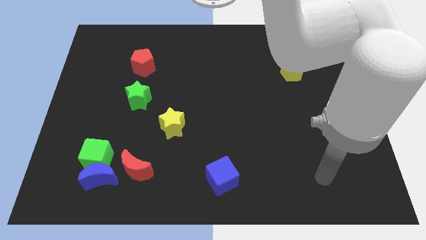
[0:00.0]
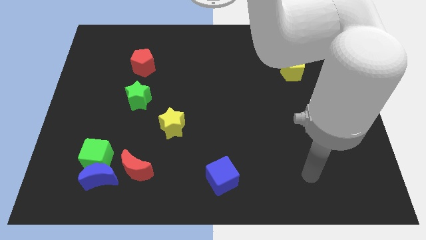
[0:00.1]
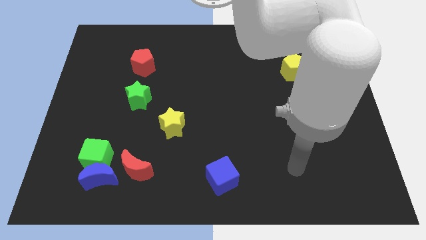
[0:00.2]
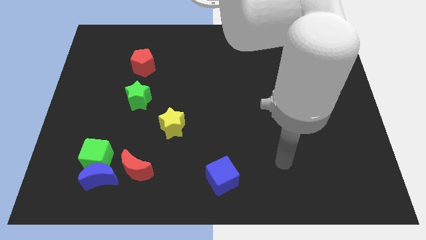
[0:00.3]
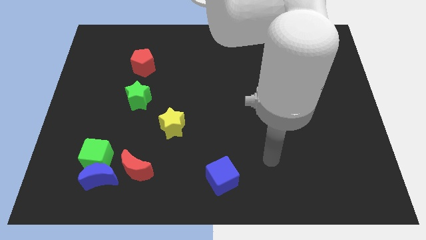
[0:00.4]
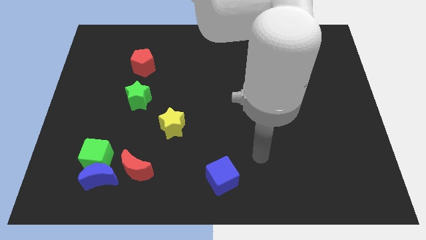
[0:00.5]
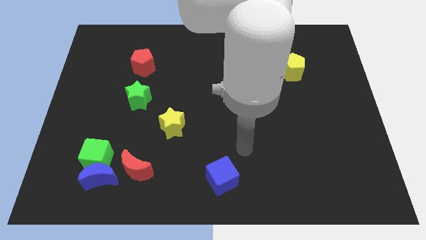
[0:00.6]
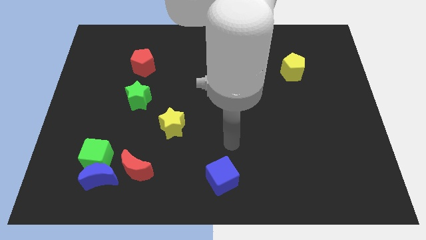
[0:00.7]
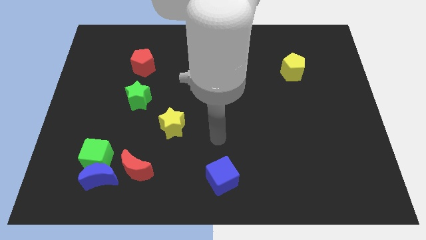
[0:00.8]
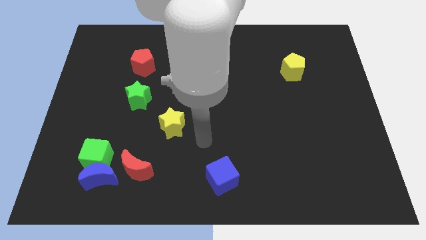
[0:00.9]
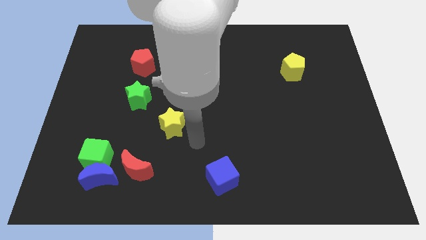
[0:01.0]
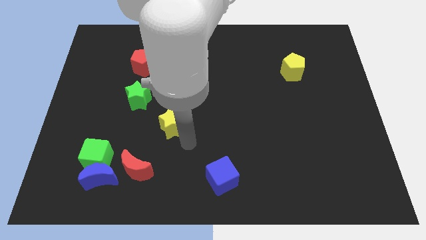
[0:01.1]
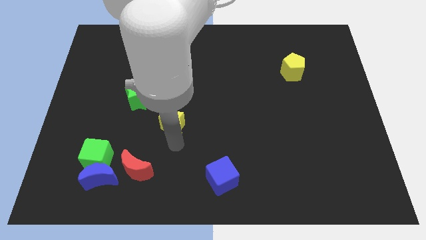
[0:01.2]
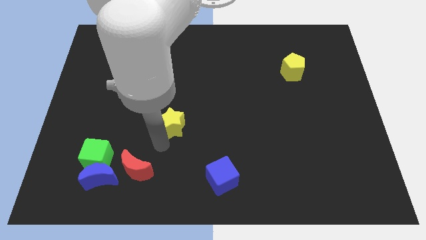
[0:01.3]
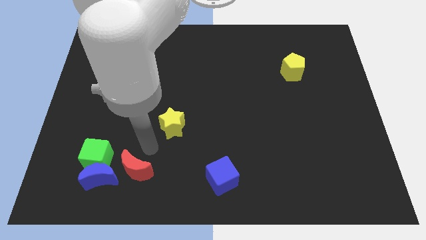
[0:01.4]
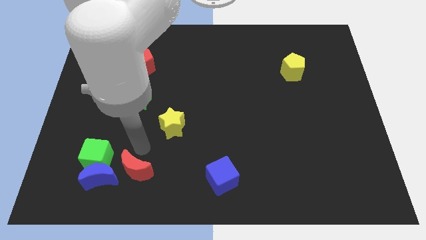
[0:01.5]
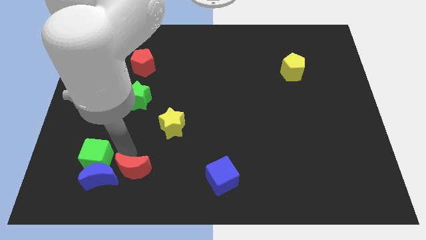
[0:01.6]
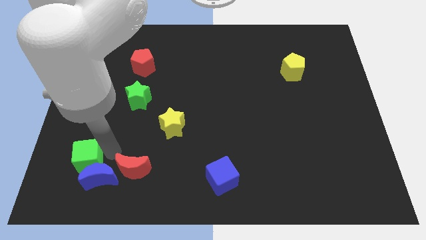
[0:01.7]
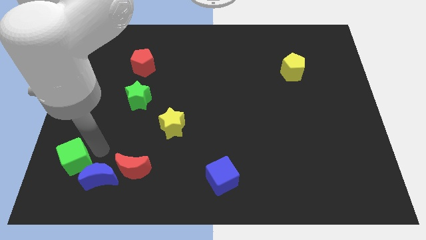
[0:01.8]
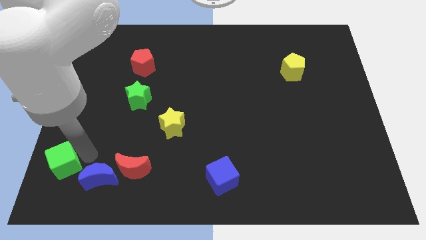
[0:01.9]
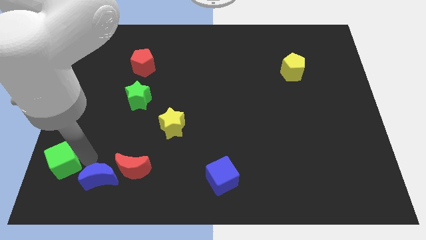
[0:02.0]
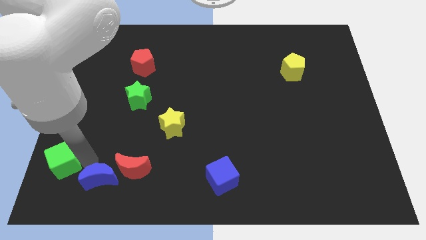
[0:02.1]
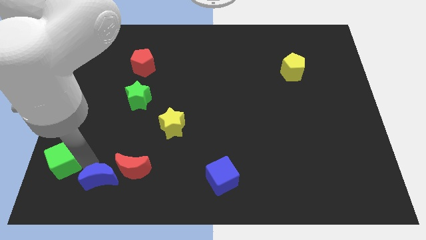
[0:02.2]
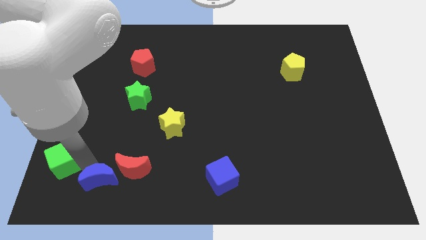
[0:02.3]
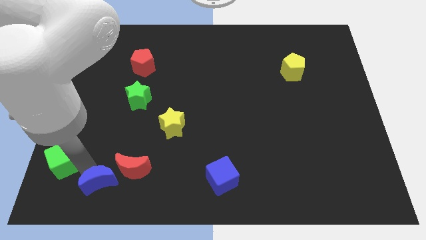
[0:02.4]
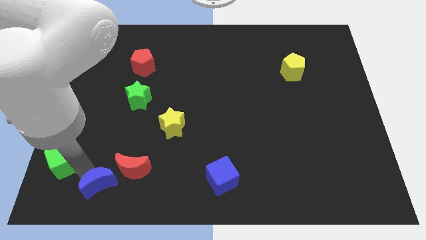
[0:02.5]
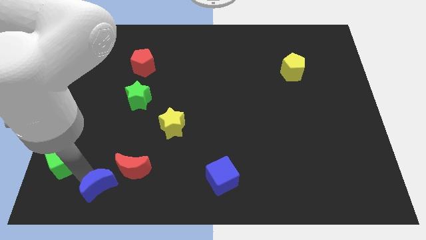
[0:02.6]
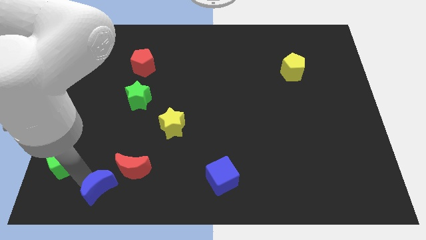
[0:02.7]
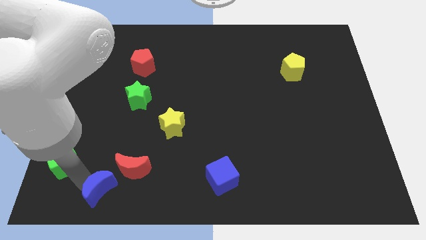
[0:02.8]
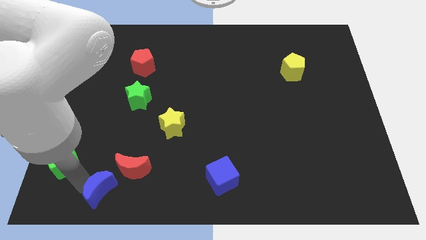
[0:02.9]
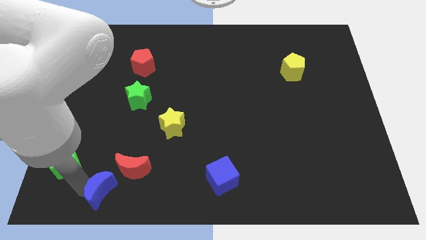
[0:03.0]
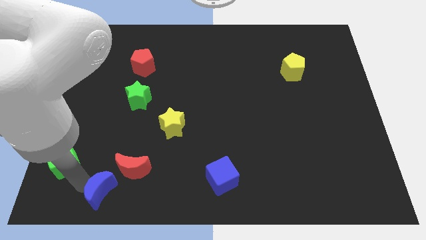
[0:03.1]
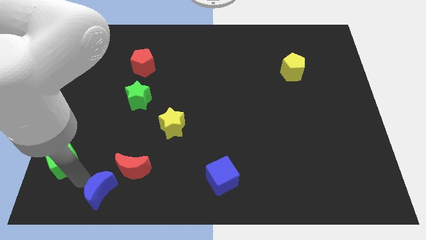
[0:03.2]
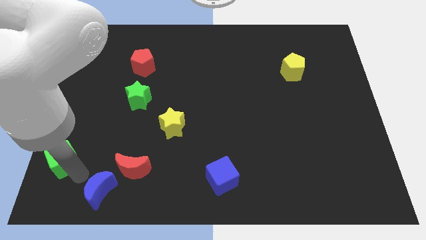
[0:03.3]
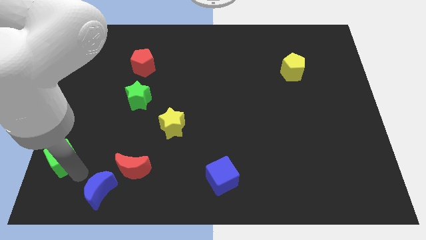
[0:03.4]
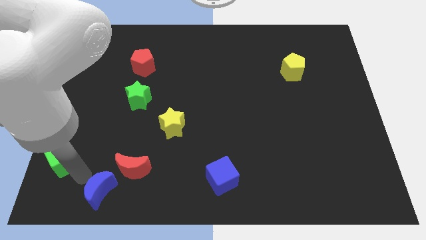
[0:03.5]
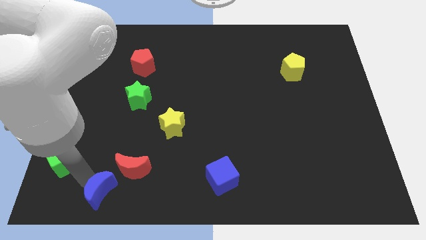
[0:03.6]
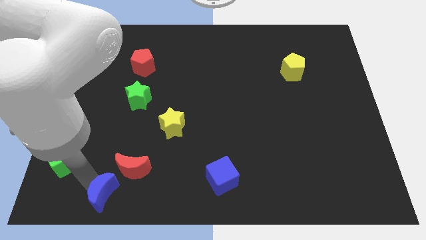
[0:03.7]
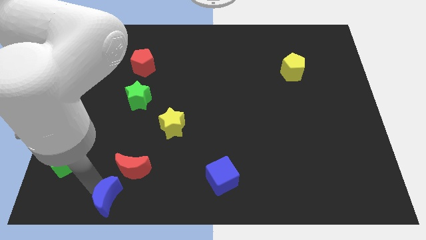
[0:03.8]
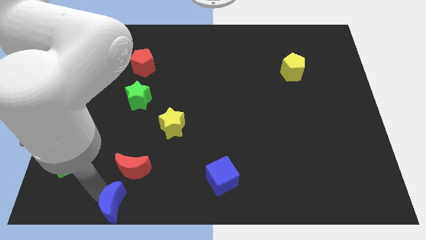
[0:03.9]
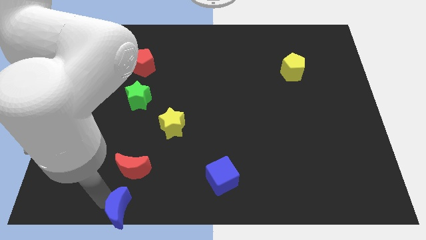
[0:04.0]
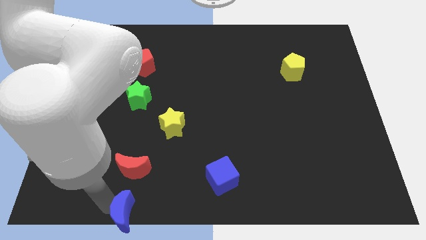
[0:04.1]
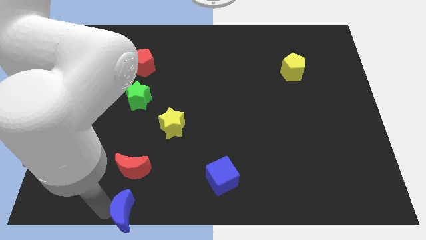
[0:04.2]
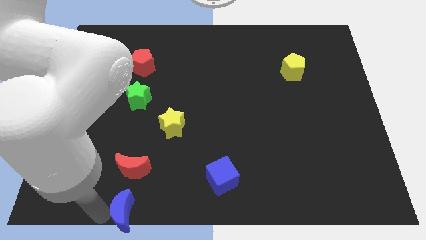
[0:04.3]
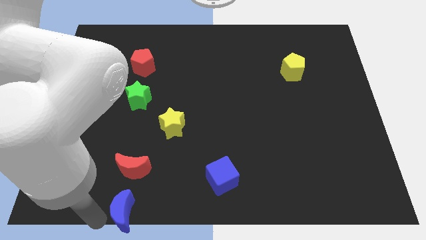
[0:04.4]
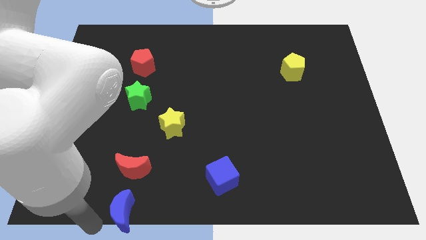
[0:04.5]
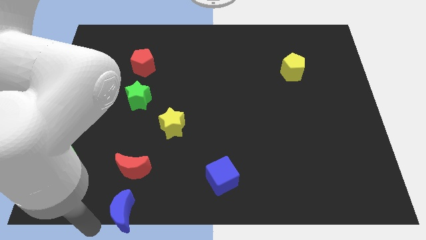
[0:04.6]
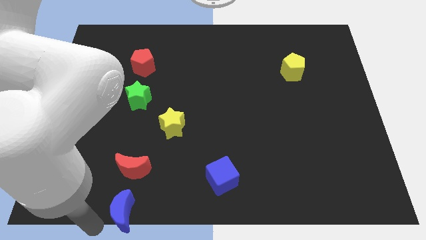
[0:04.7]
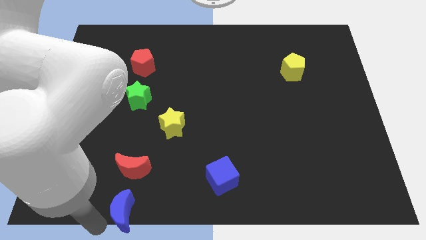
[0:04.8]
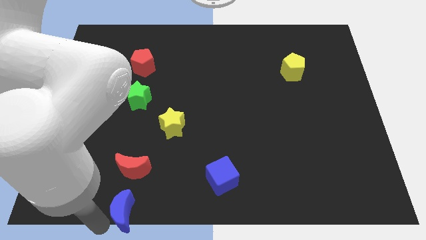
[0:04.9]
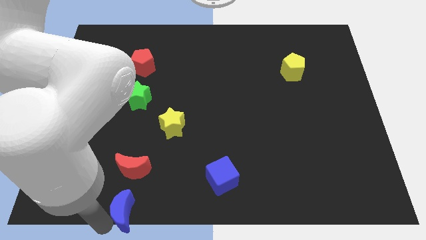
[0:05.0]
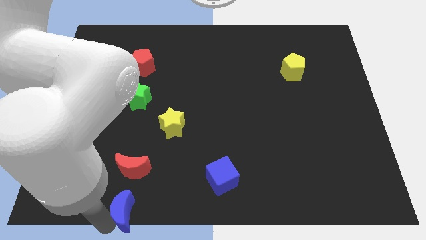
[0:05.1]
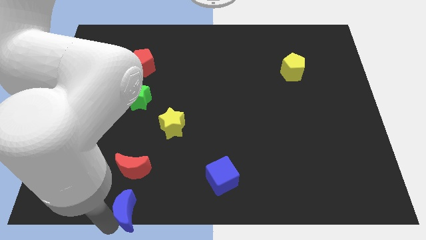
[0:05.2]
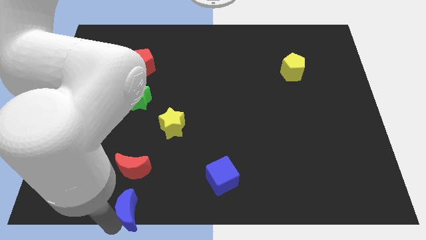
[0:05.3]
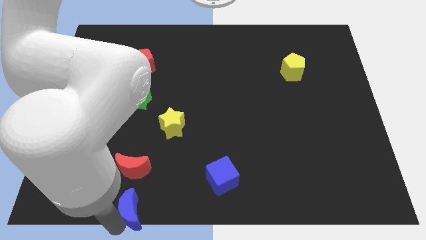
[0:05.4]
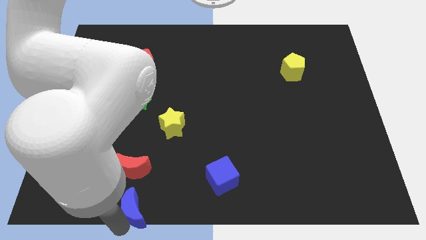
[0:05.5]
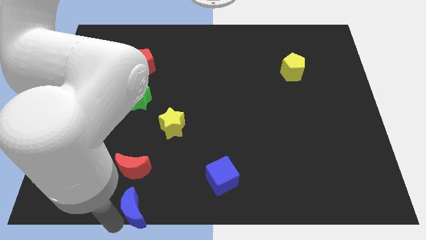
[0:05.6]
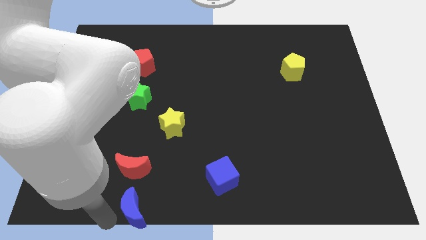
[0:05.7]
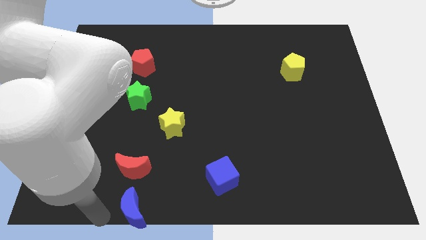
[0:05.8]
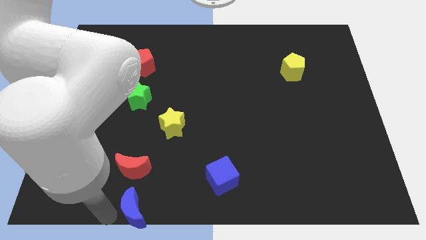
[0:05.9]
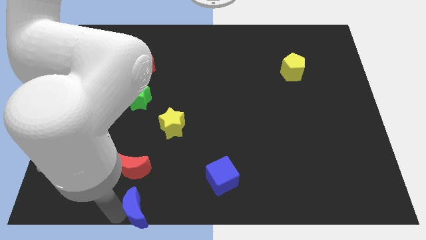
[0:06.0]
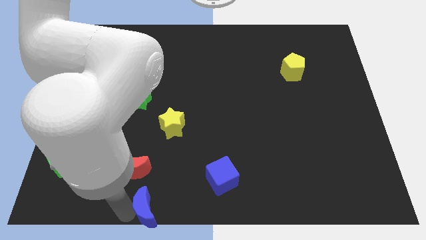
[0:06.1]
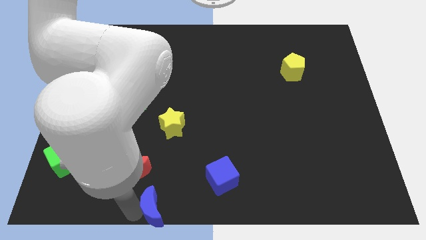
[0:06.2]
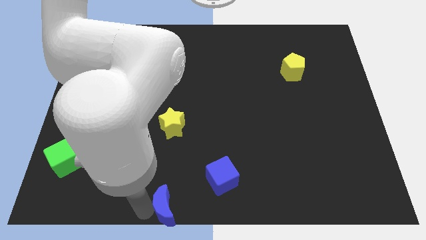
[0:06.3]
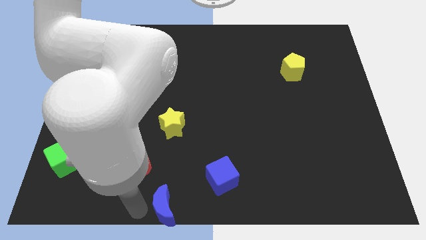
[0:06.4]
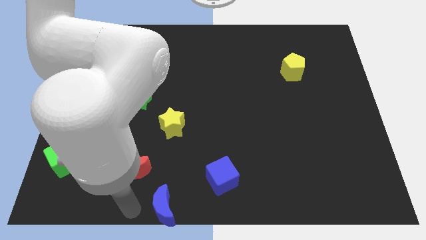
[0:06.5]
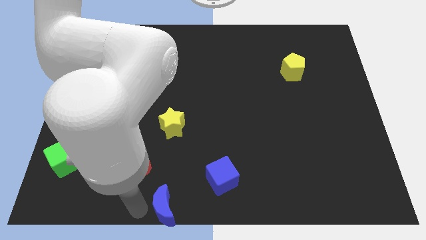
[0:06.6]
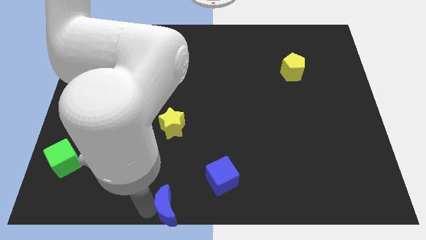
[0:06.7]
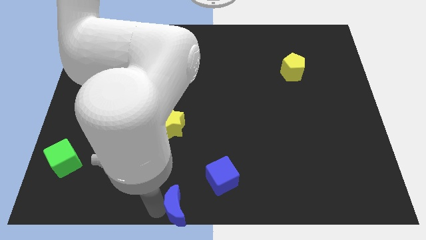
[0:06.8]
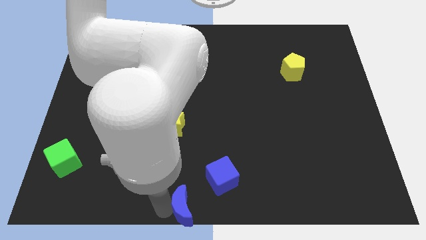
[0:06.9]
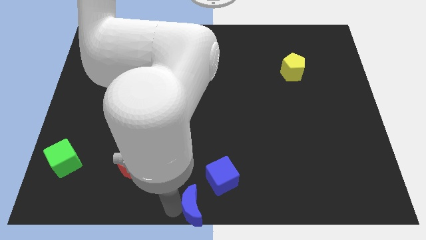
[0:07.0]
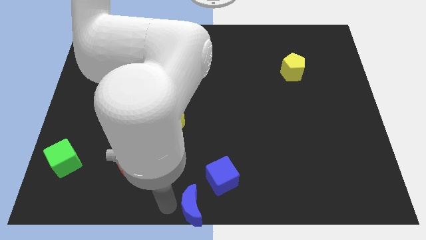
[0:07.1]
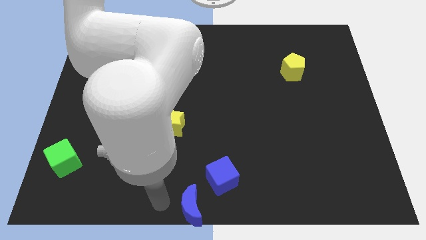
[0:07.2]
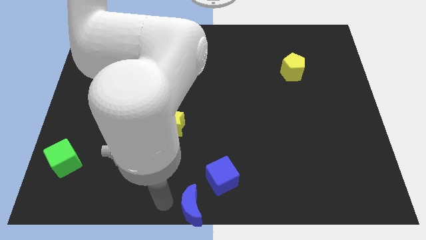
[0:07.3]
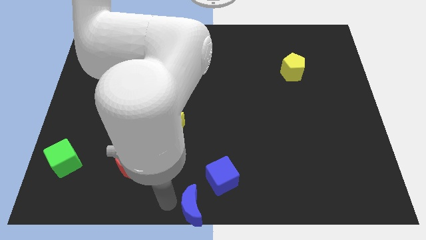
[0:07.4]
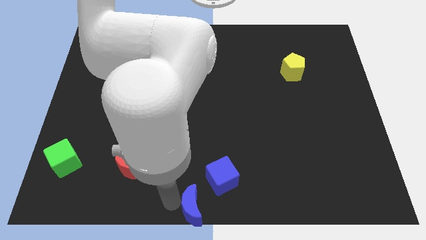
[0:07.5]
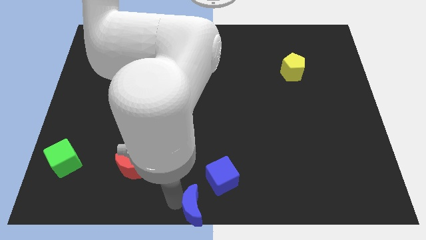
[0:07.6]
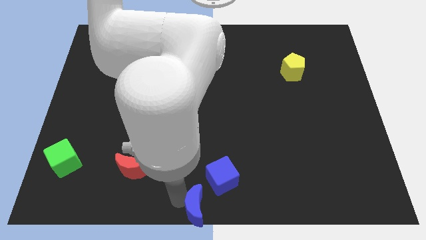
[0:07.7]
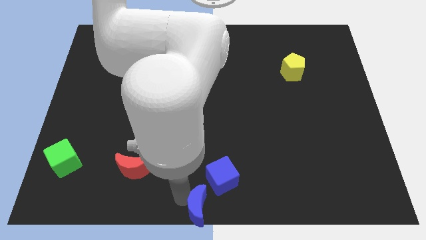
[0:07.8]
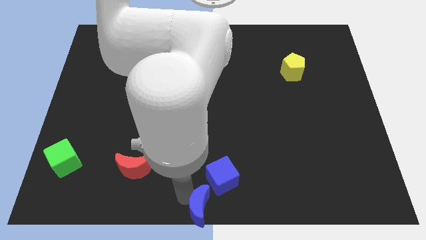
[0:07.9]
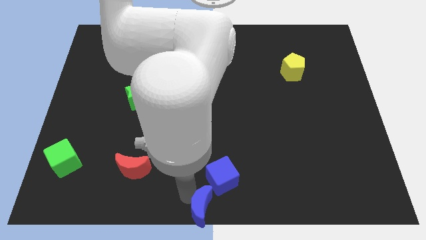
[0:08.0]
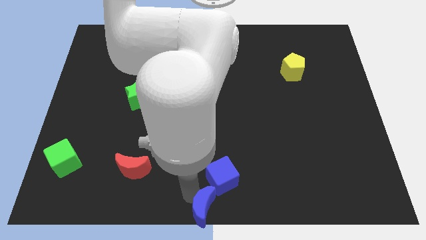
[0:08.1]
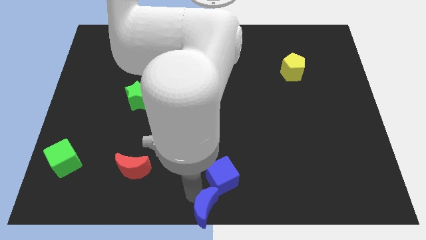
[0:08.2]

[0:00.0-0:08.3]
slide the blue moon to the right
